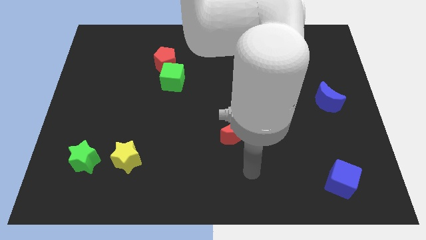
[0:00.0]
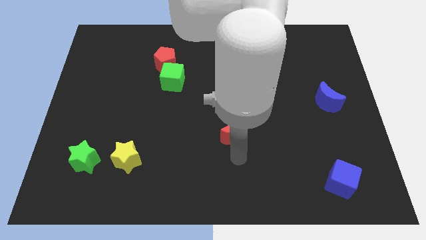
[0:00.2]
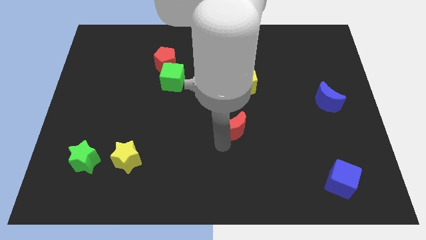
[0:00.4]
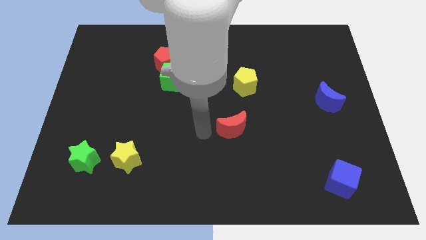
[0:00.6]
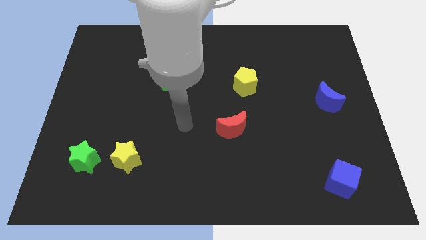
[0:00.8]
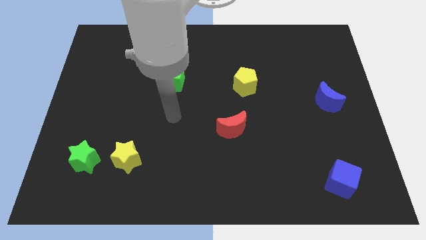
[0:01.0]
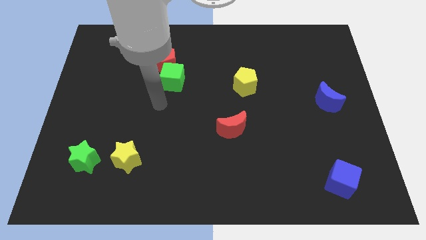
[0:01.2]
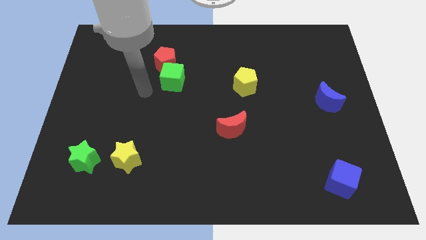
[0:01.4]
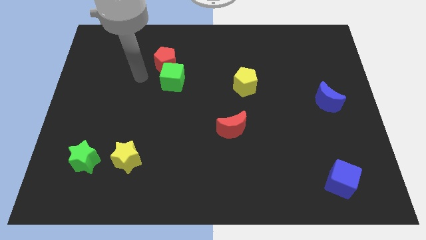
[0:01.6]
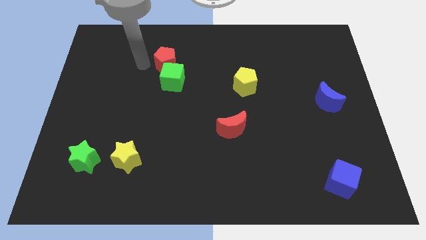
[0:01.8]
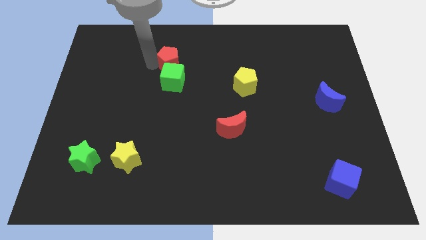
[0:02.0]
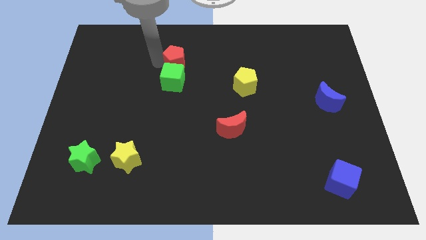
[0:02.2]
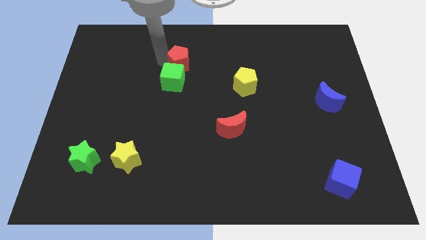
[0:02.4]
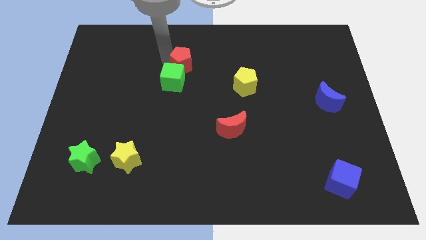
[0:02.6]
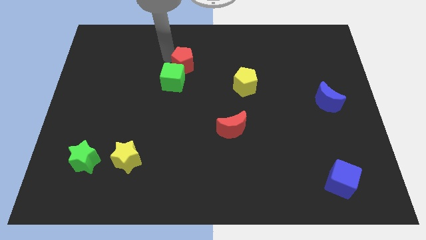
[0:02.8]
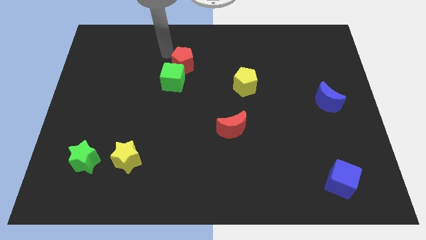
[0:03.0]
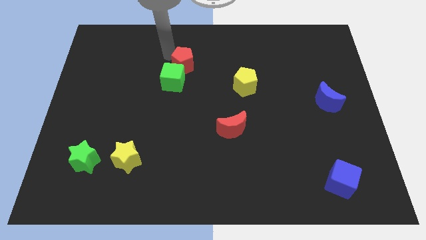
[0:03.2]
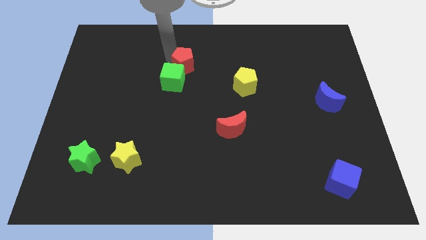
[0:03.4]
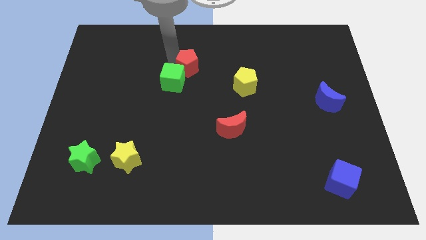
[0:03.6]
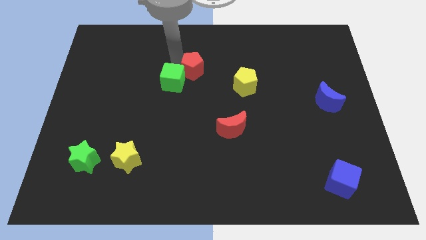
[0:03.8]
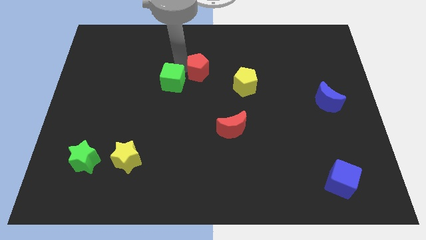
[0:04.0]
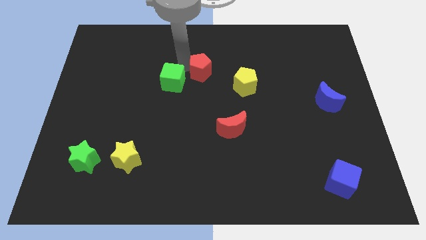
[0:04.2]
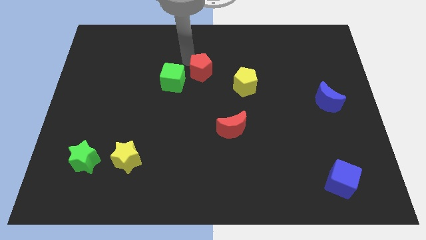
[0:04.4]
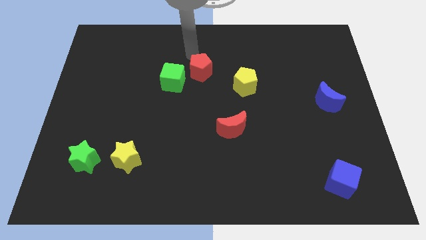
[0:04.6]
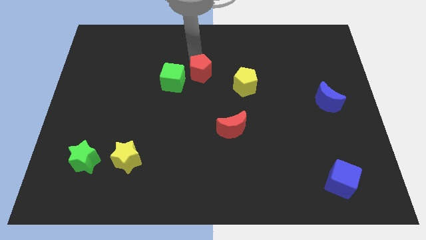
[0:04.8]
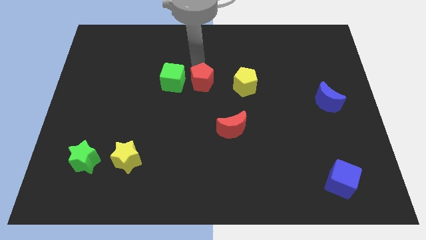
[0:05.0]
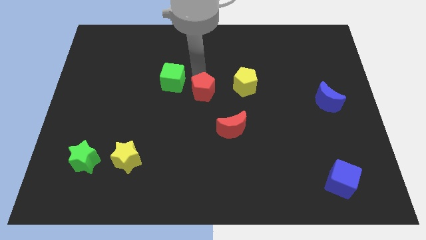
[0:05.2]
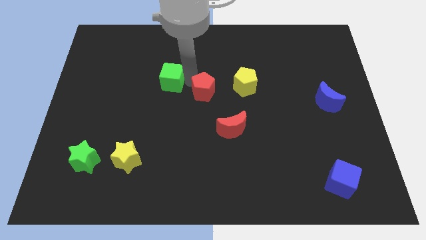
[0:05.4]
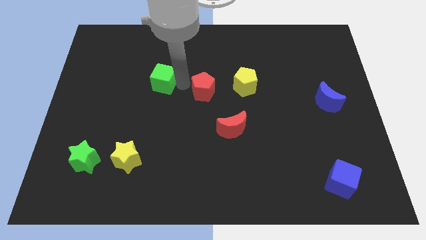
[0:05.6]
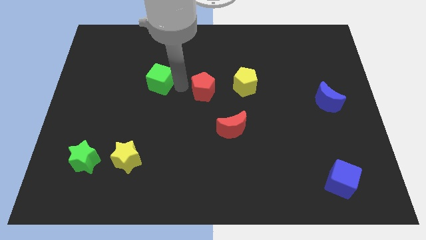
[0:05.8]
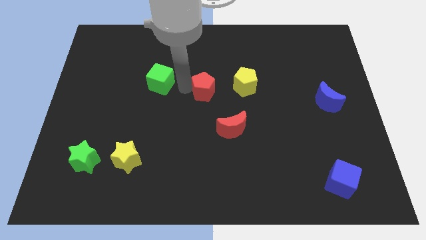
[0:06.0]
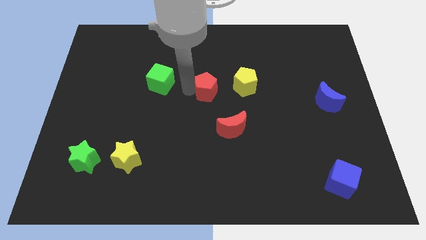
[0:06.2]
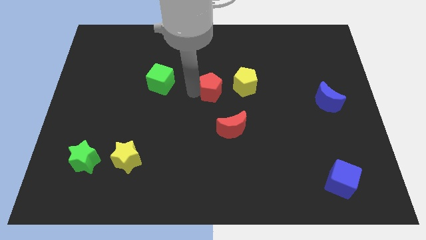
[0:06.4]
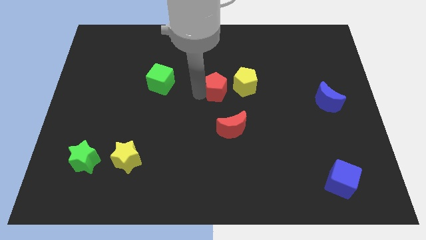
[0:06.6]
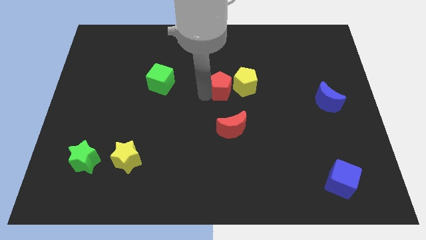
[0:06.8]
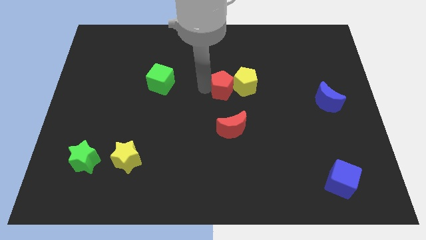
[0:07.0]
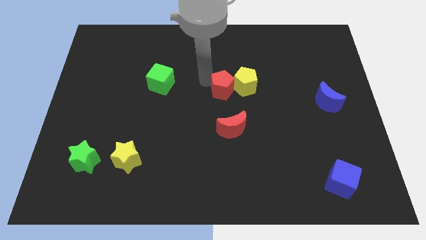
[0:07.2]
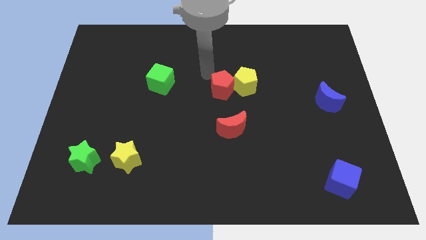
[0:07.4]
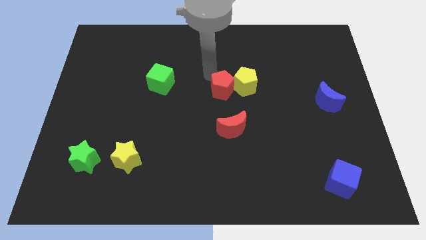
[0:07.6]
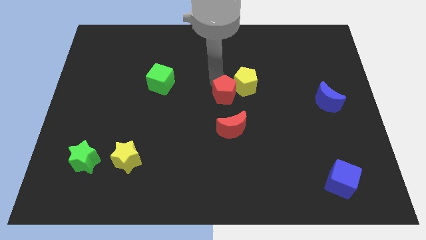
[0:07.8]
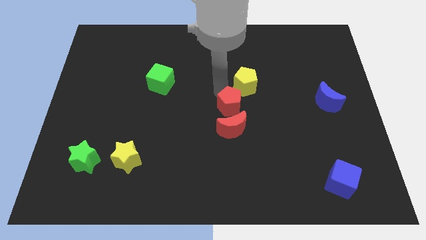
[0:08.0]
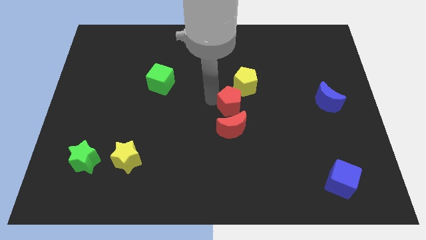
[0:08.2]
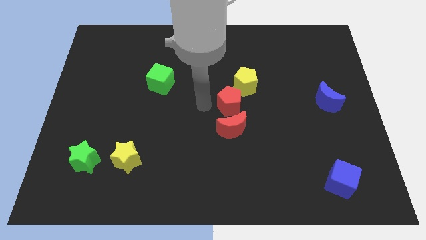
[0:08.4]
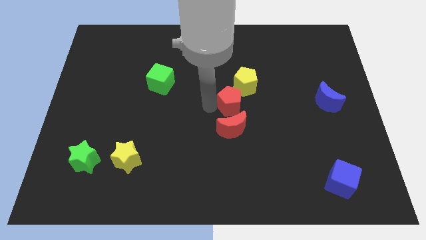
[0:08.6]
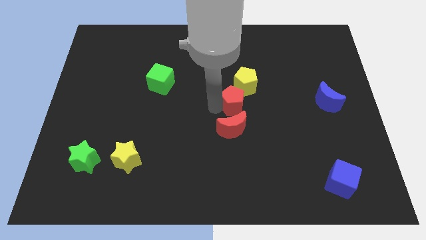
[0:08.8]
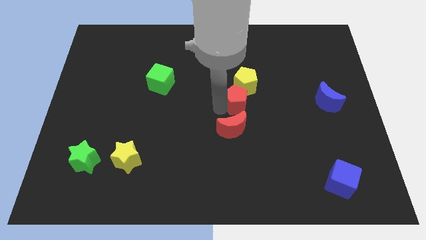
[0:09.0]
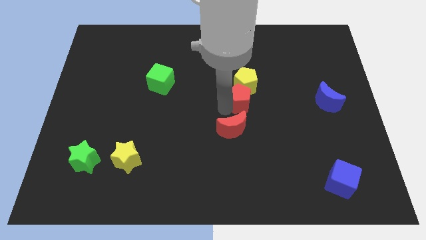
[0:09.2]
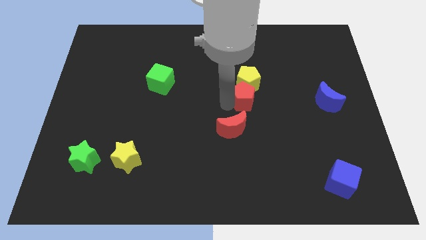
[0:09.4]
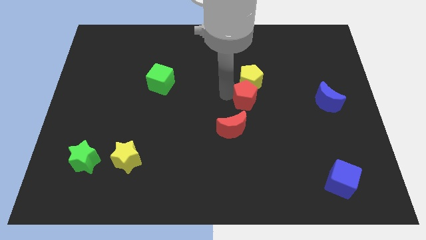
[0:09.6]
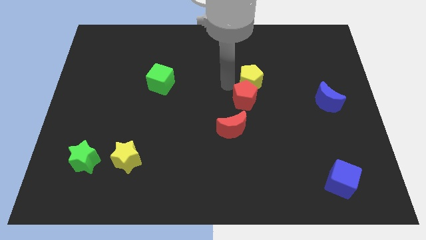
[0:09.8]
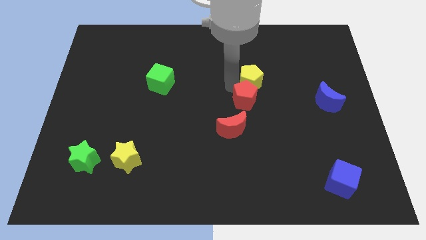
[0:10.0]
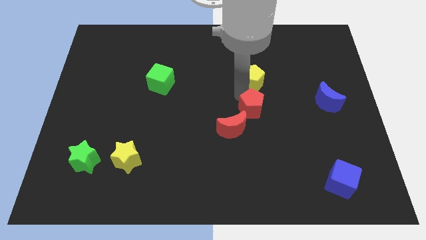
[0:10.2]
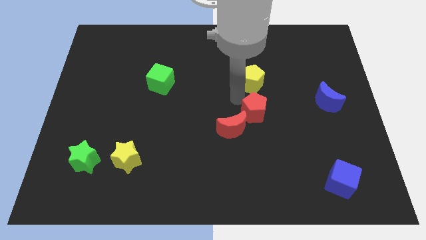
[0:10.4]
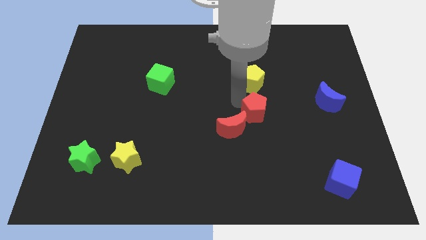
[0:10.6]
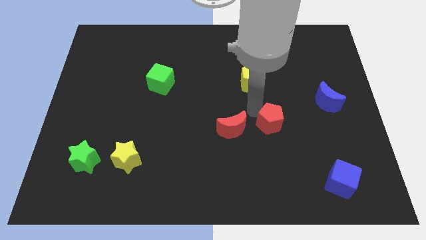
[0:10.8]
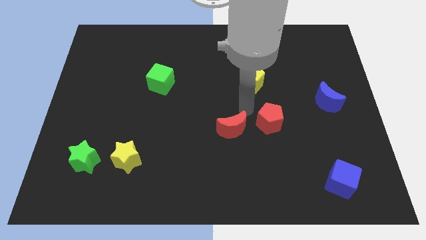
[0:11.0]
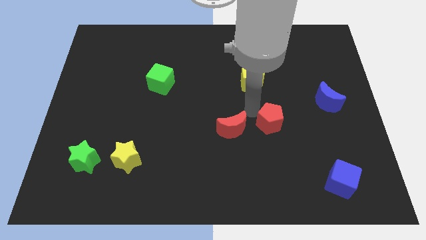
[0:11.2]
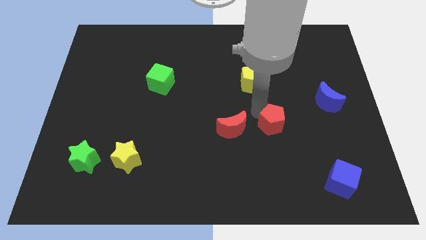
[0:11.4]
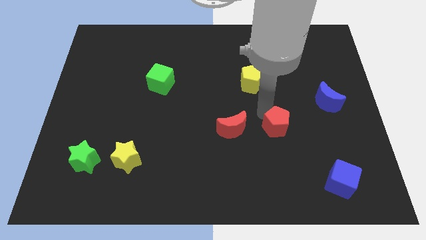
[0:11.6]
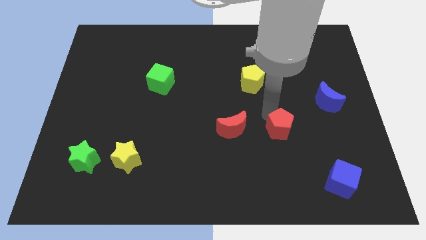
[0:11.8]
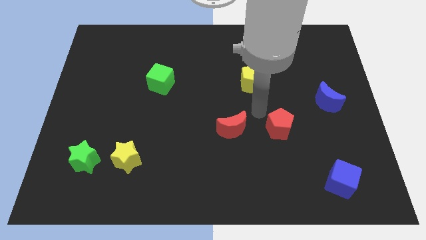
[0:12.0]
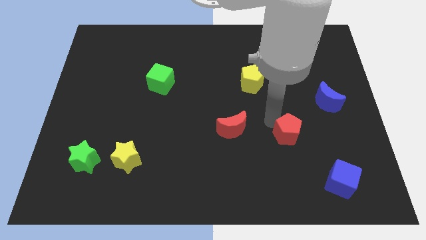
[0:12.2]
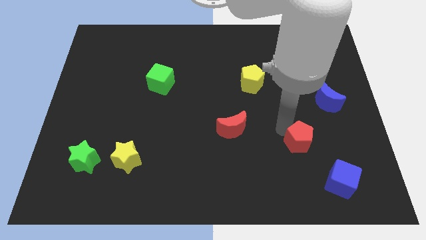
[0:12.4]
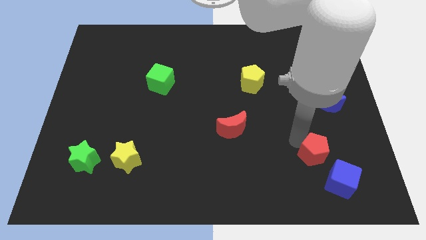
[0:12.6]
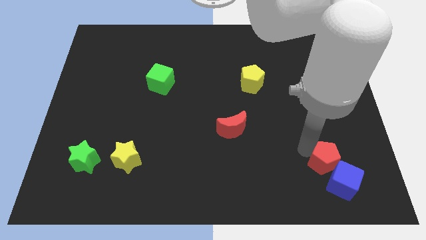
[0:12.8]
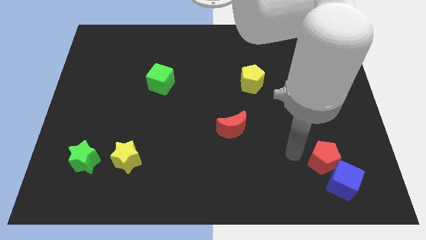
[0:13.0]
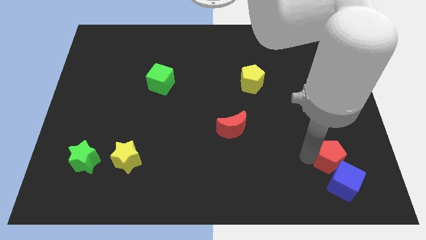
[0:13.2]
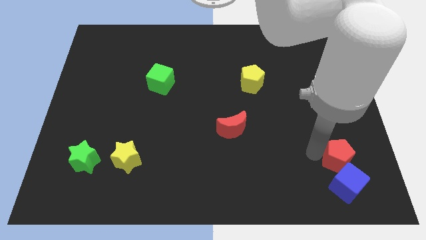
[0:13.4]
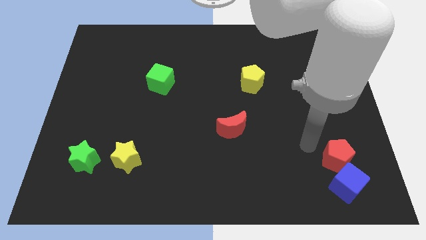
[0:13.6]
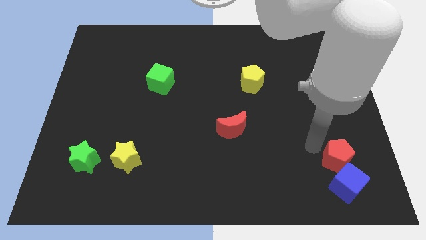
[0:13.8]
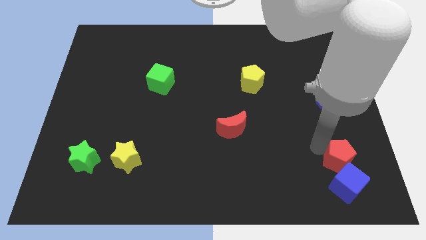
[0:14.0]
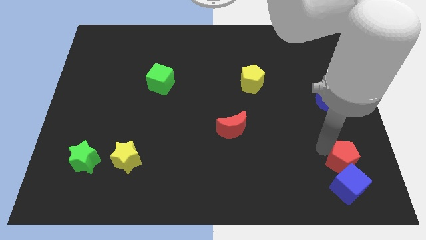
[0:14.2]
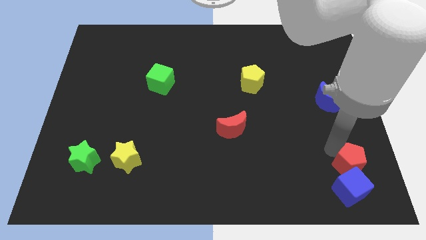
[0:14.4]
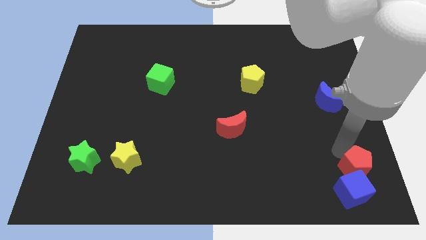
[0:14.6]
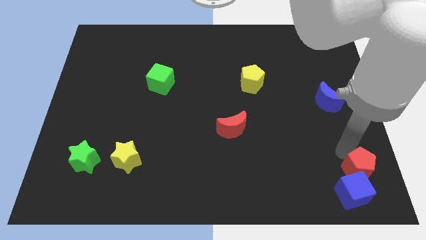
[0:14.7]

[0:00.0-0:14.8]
put the red pentagon to the lower right corner
